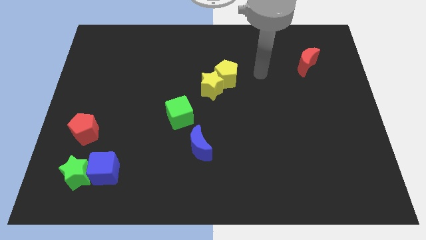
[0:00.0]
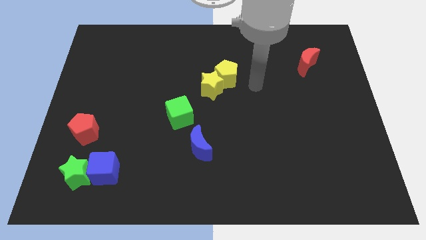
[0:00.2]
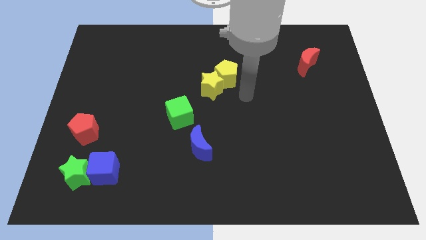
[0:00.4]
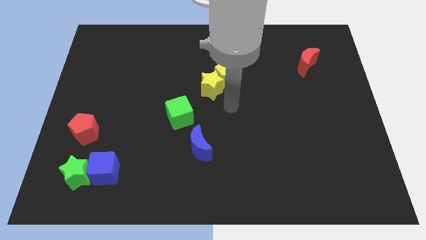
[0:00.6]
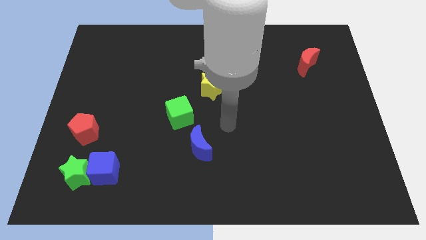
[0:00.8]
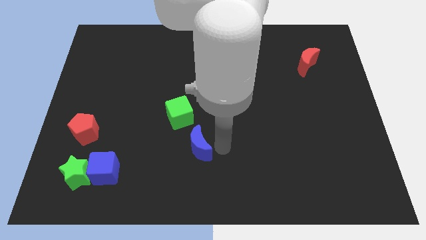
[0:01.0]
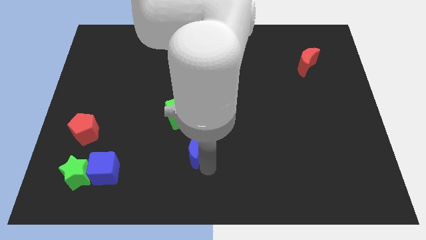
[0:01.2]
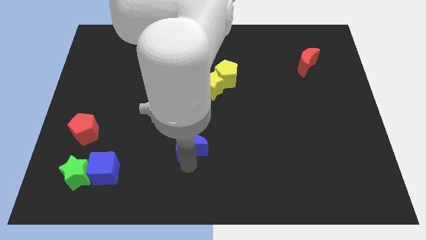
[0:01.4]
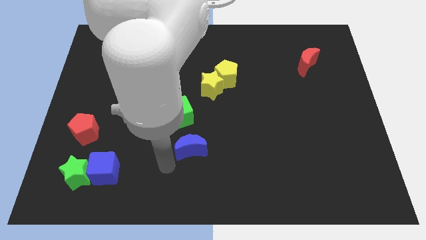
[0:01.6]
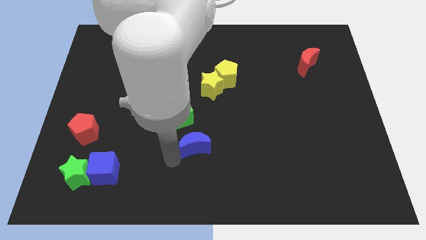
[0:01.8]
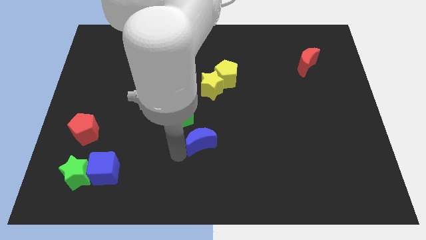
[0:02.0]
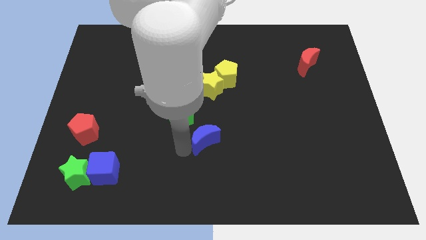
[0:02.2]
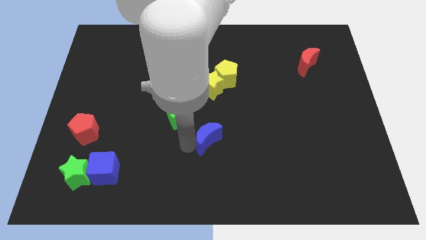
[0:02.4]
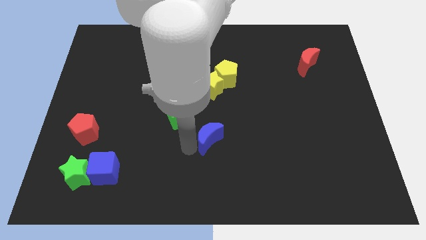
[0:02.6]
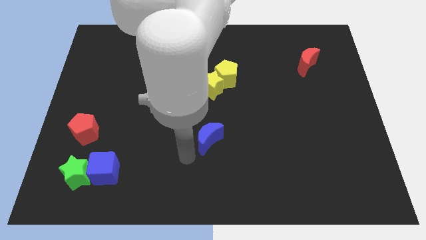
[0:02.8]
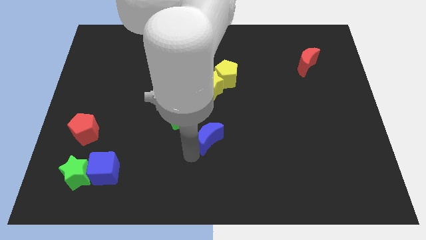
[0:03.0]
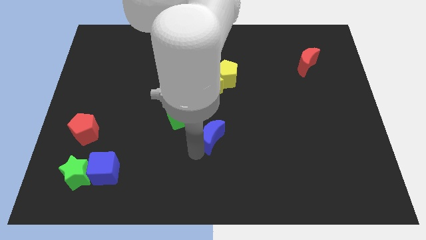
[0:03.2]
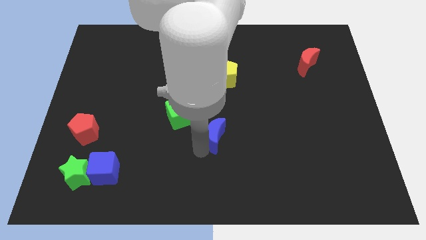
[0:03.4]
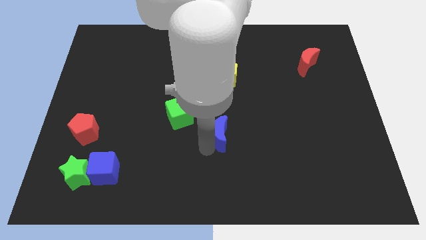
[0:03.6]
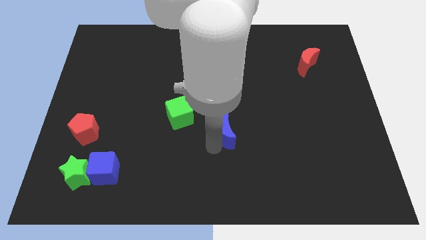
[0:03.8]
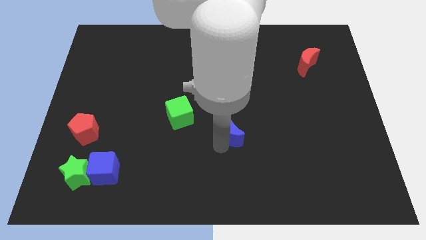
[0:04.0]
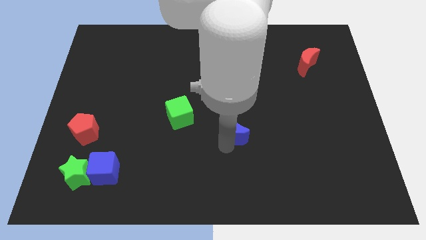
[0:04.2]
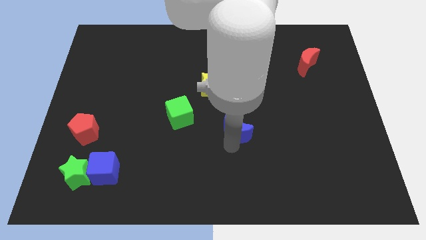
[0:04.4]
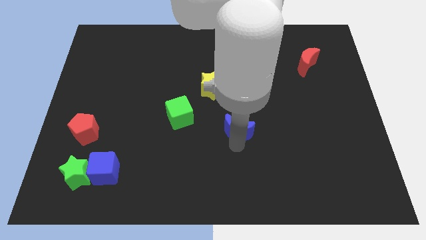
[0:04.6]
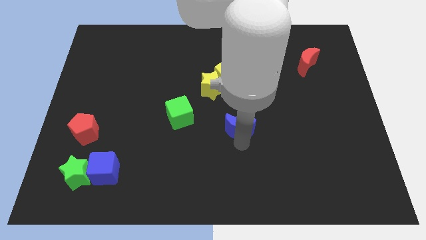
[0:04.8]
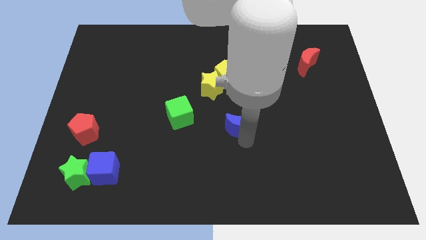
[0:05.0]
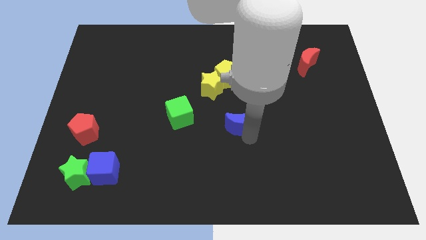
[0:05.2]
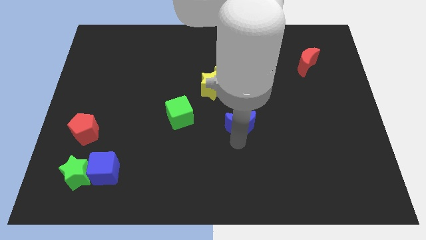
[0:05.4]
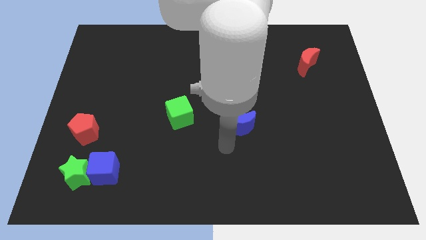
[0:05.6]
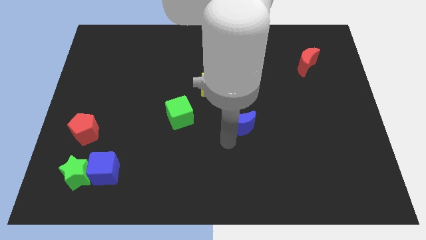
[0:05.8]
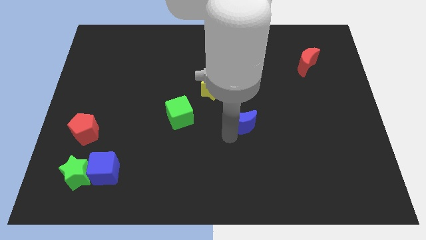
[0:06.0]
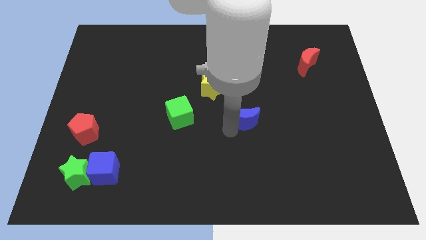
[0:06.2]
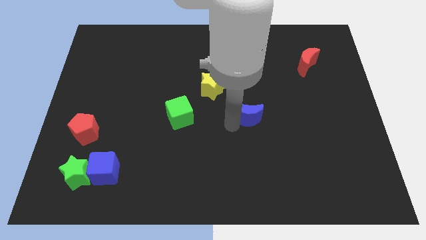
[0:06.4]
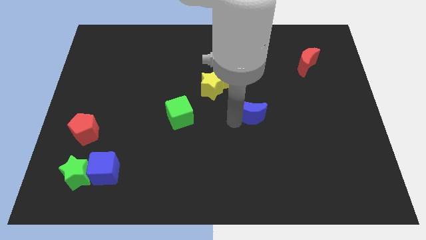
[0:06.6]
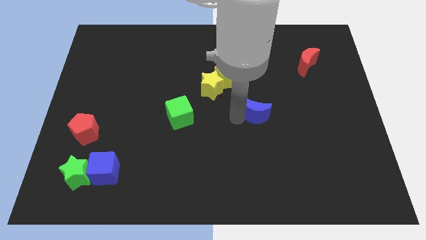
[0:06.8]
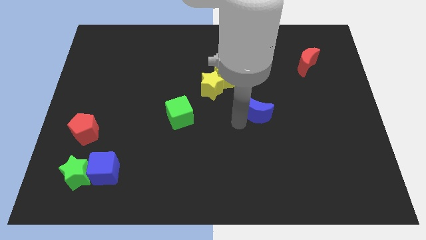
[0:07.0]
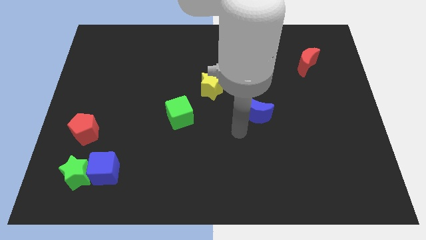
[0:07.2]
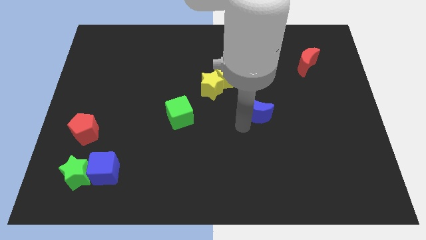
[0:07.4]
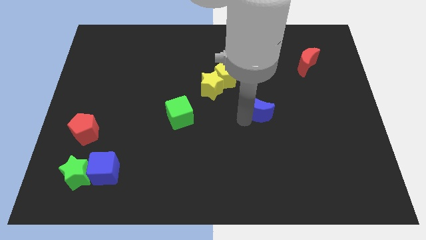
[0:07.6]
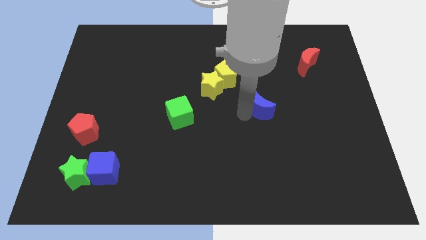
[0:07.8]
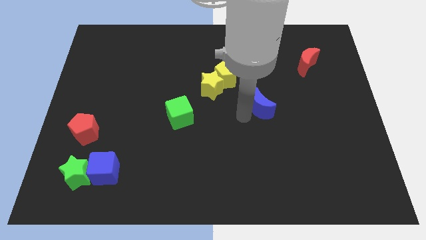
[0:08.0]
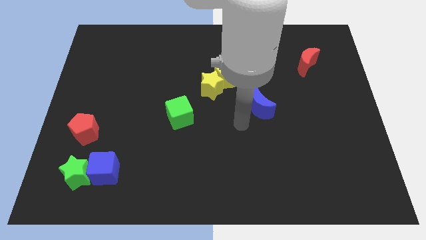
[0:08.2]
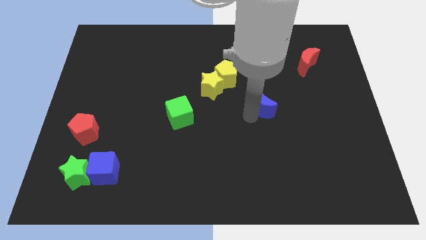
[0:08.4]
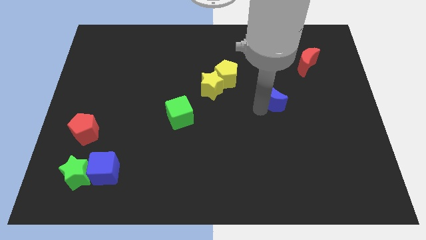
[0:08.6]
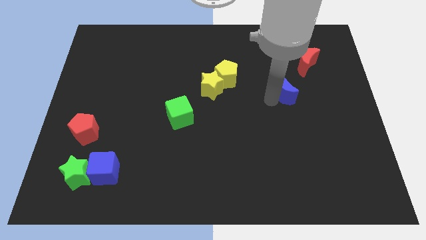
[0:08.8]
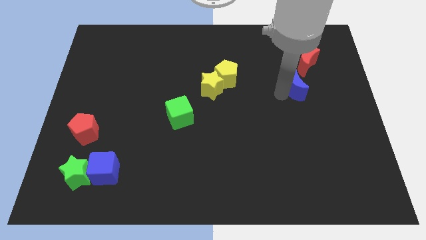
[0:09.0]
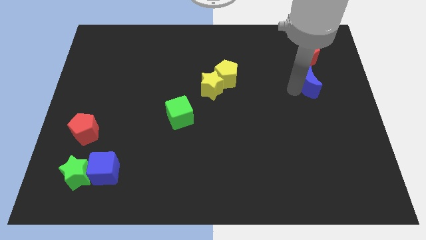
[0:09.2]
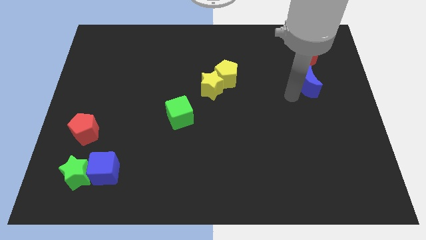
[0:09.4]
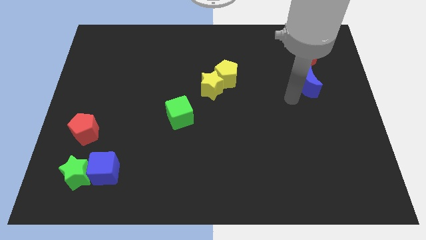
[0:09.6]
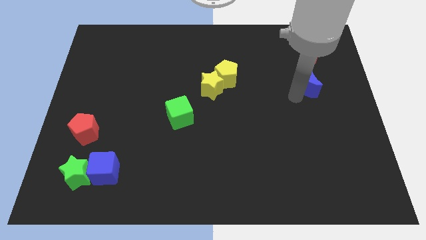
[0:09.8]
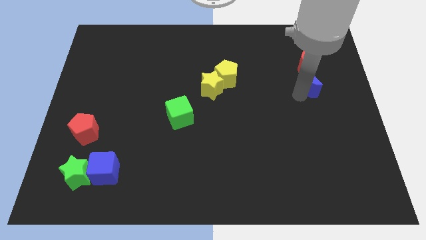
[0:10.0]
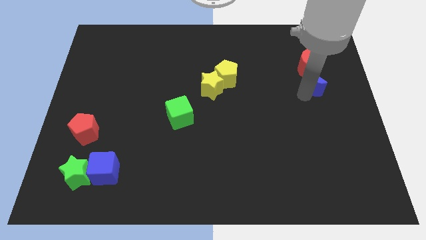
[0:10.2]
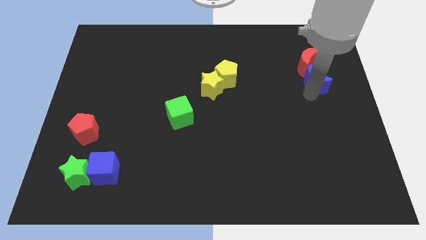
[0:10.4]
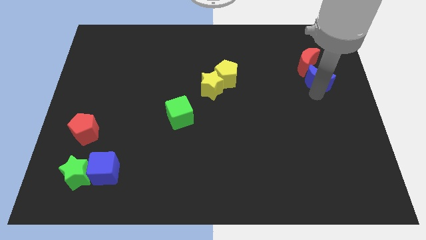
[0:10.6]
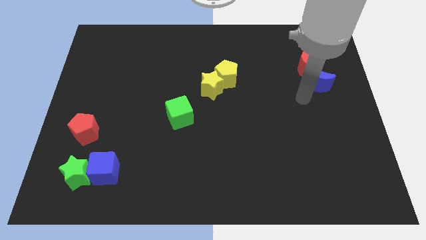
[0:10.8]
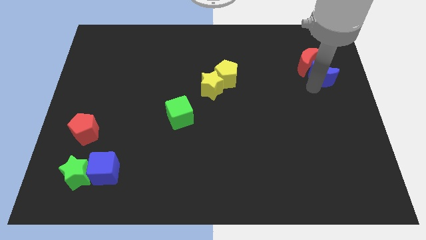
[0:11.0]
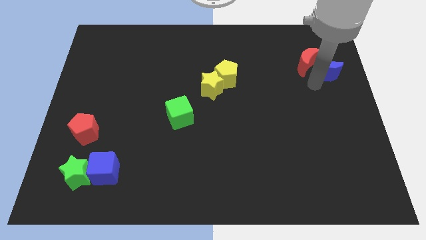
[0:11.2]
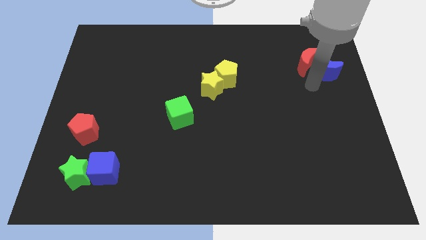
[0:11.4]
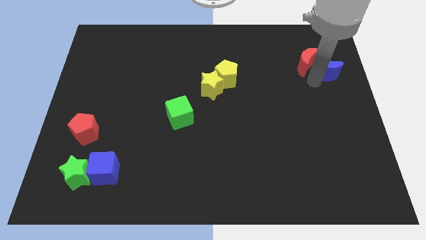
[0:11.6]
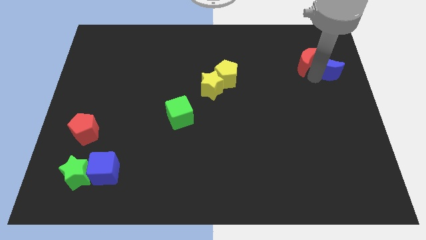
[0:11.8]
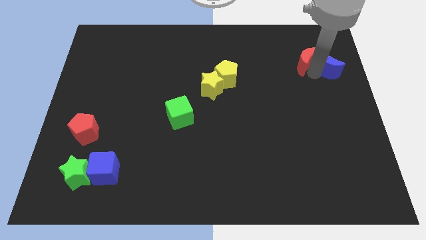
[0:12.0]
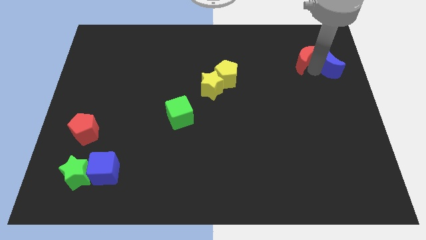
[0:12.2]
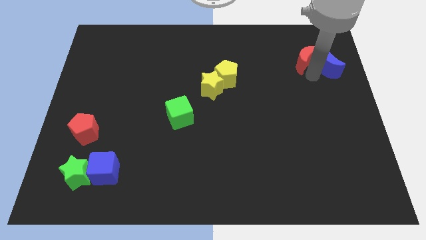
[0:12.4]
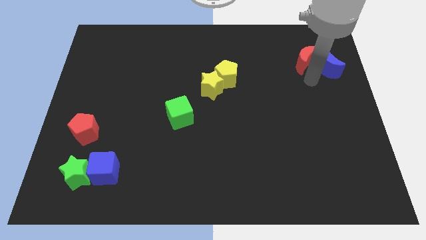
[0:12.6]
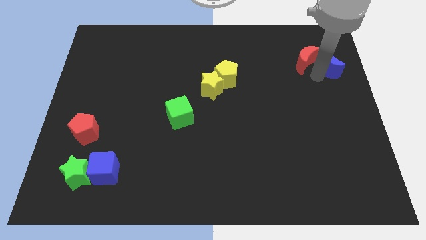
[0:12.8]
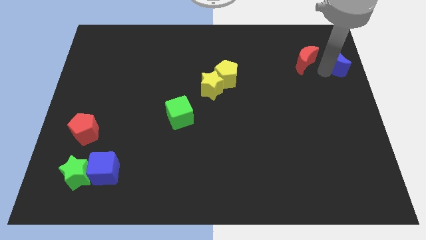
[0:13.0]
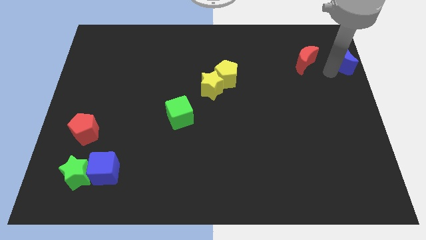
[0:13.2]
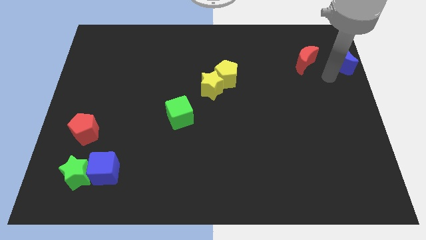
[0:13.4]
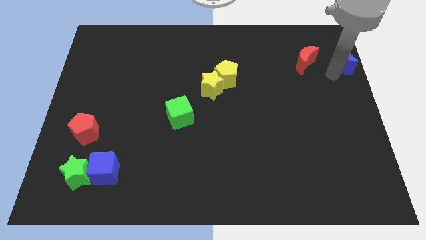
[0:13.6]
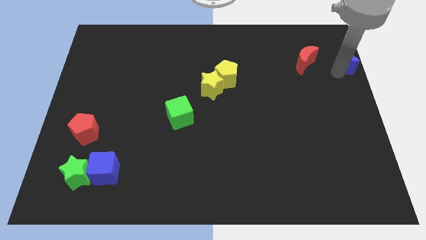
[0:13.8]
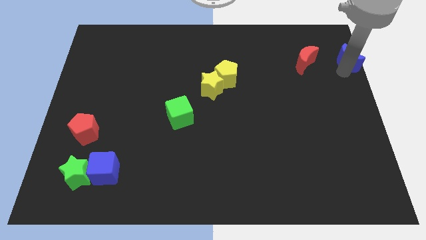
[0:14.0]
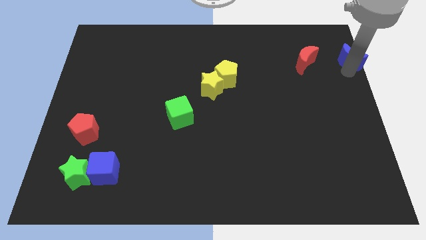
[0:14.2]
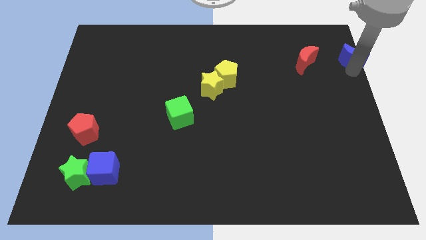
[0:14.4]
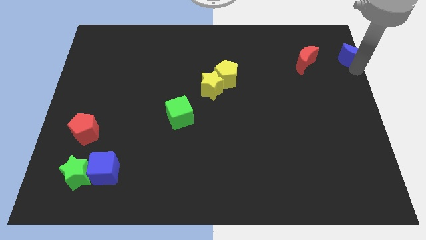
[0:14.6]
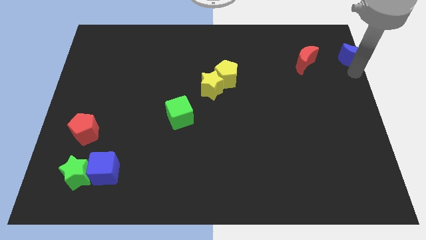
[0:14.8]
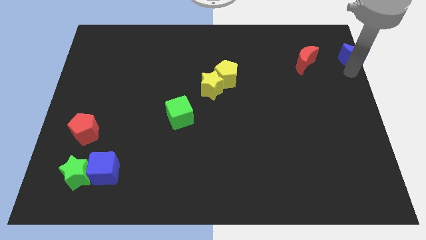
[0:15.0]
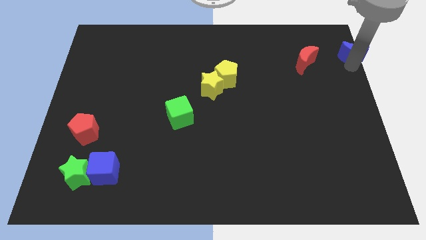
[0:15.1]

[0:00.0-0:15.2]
put the blue moon to the top right of the board
